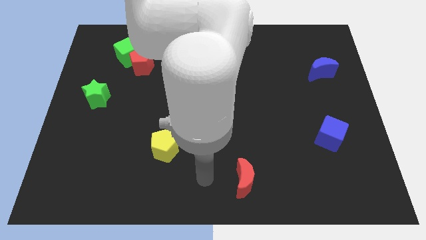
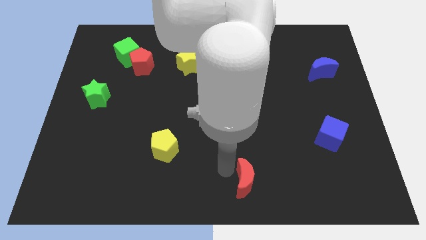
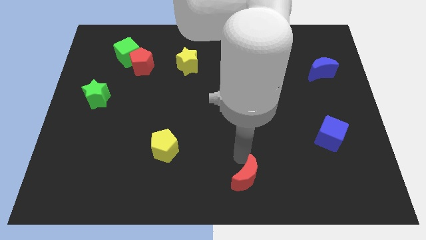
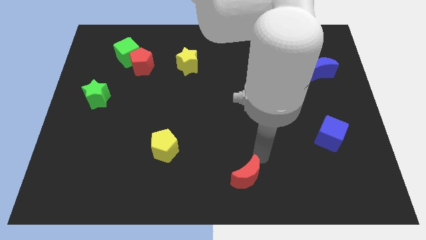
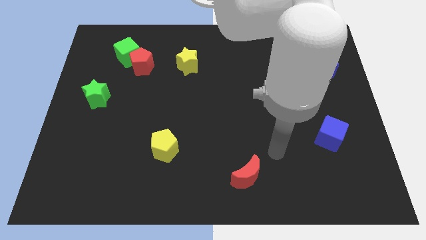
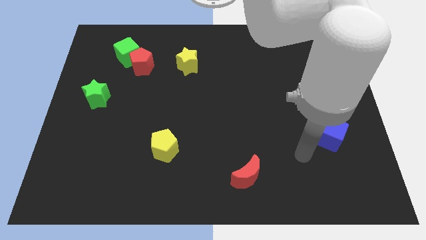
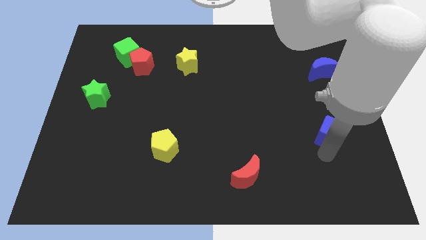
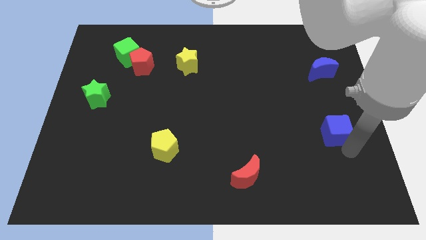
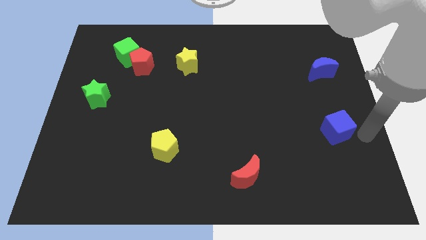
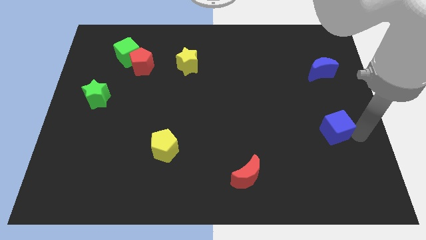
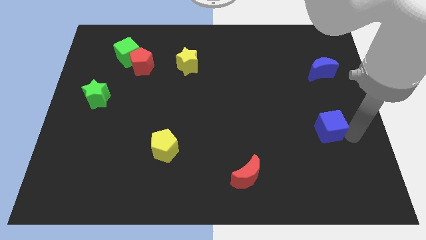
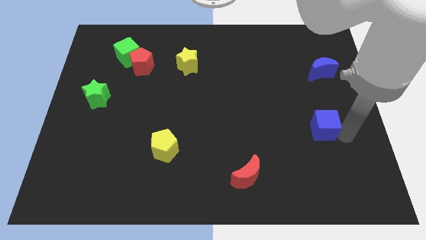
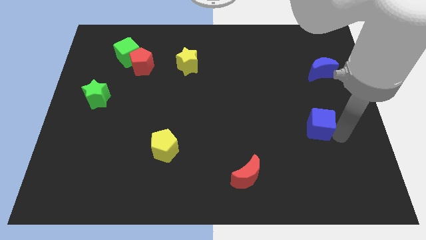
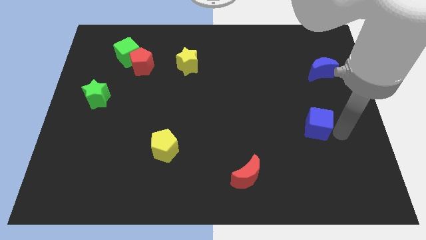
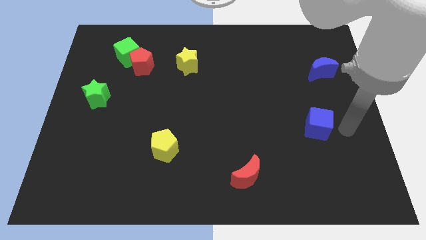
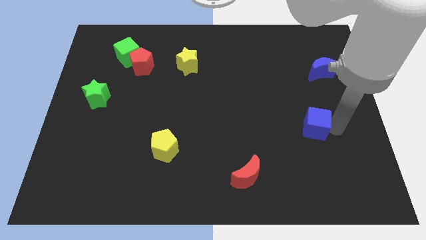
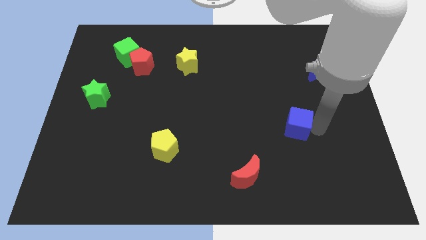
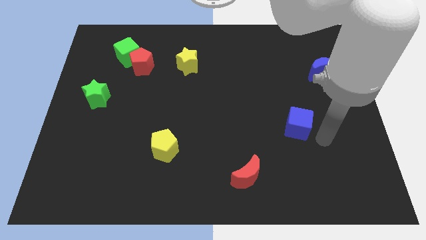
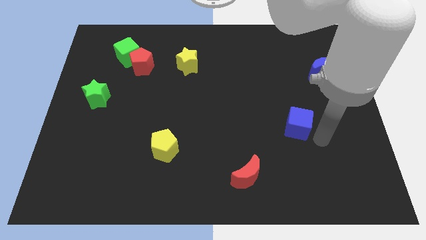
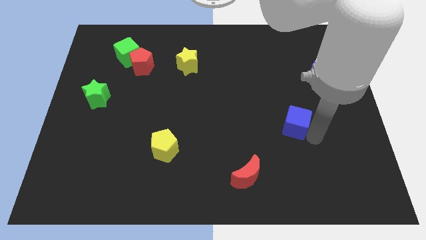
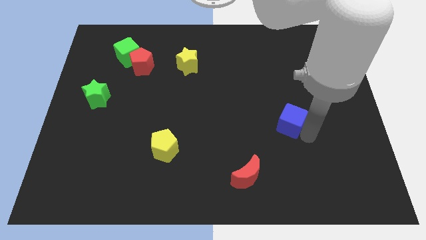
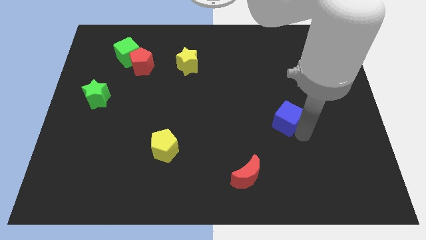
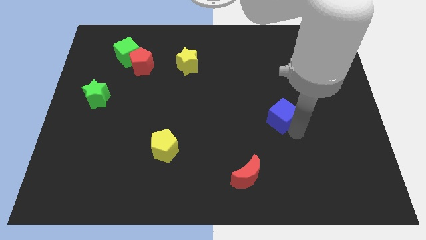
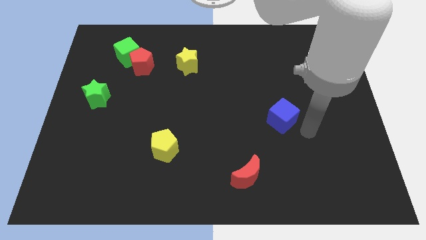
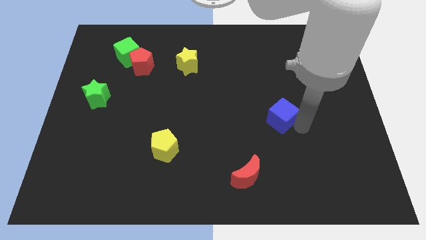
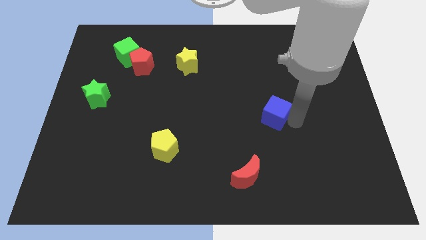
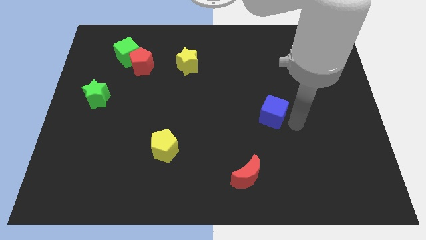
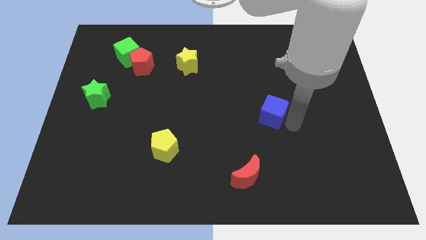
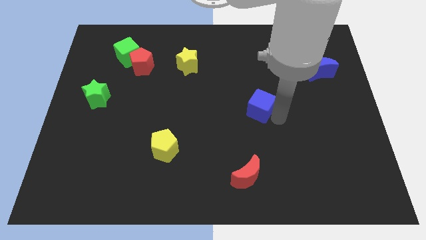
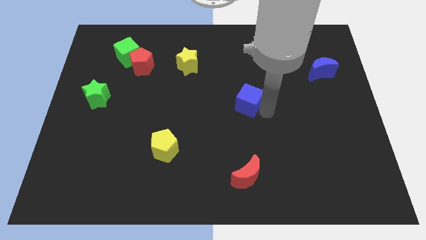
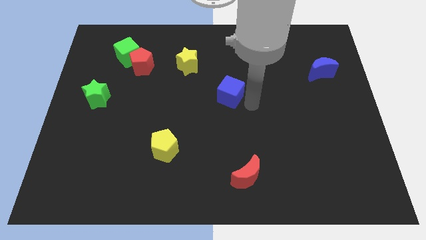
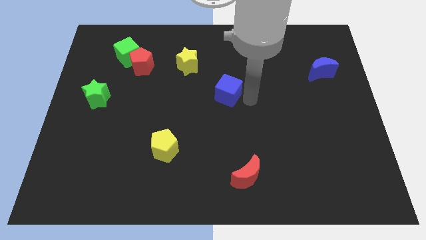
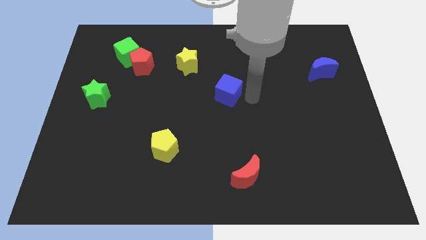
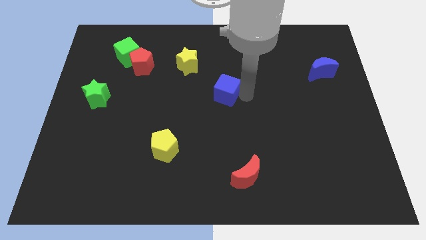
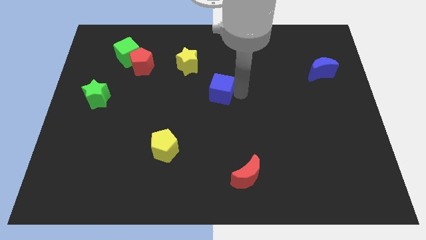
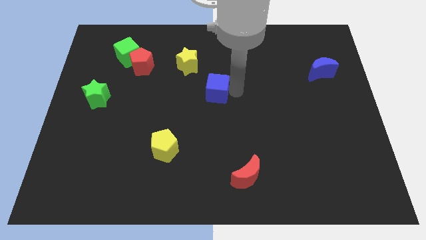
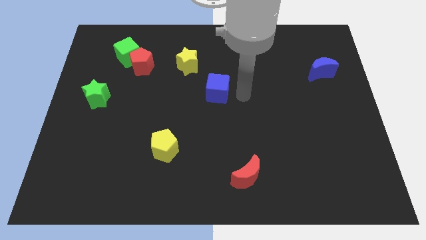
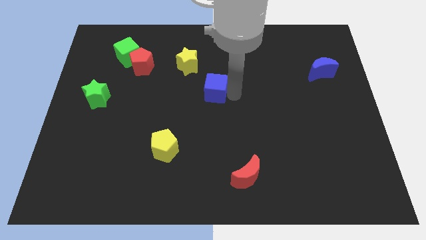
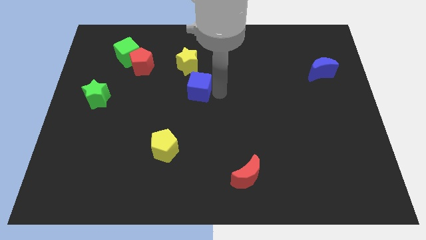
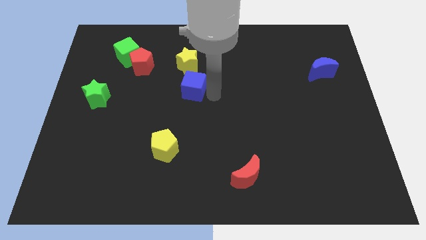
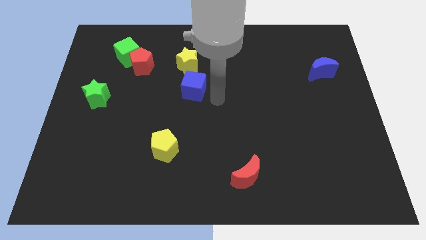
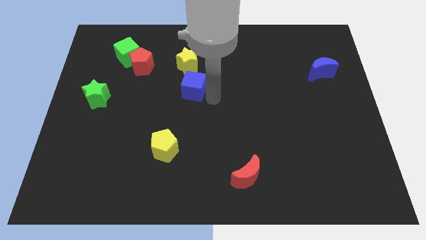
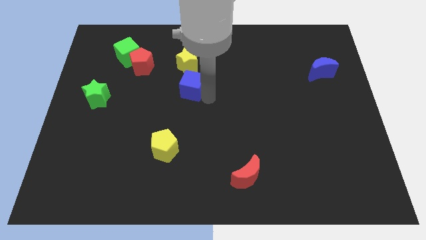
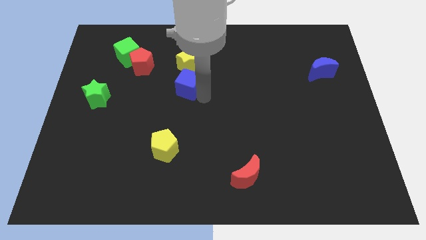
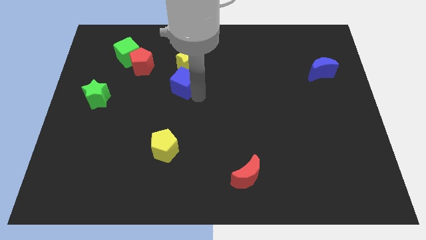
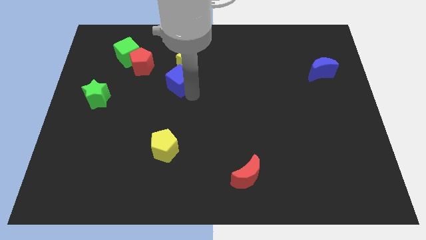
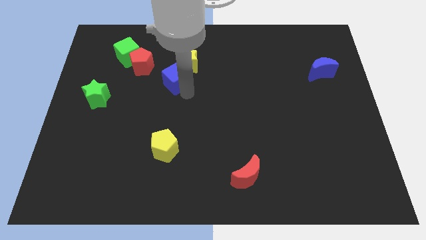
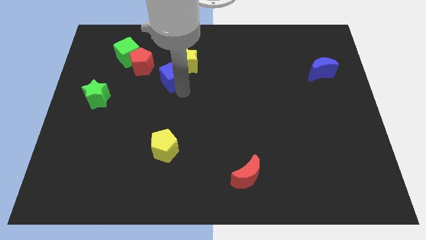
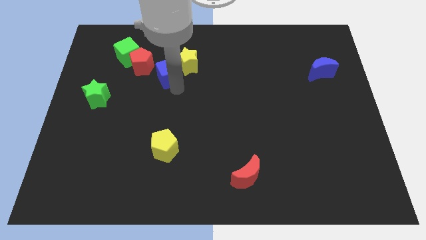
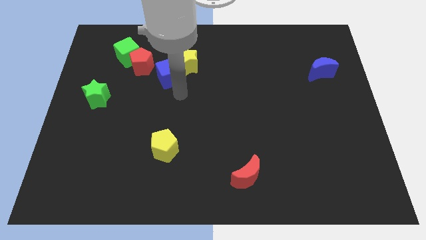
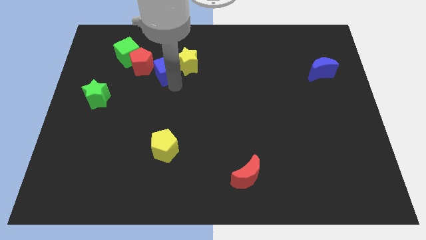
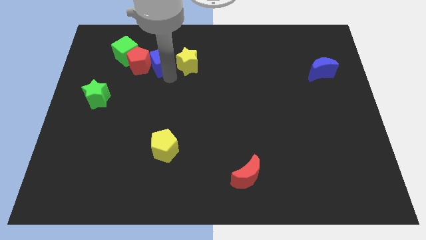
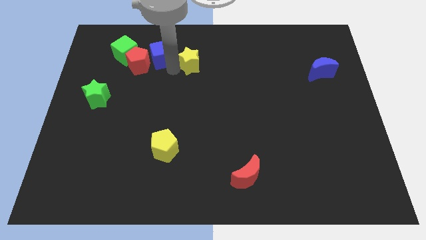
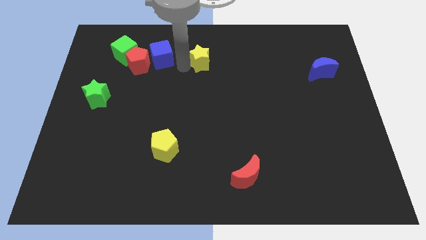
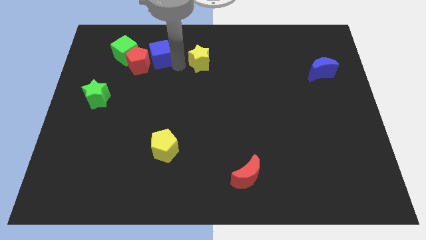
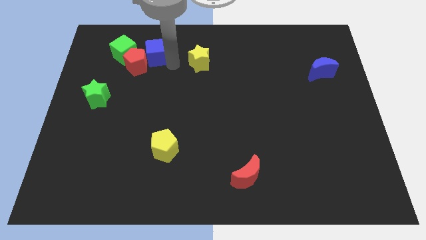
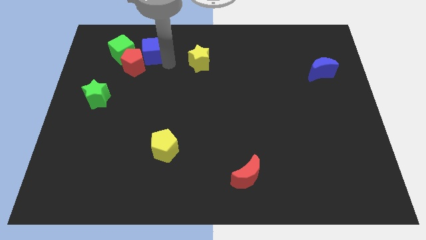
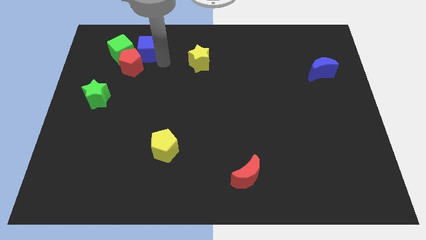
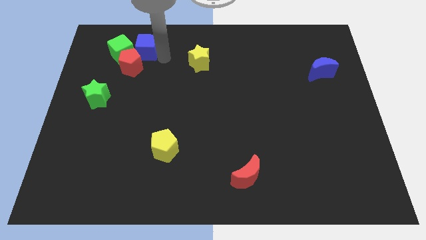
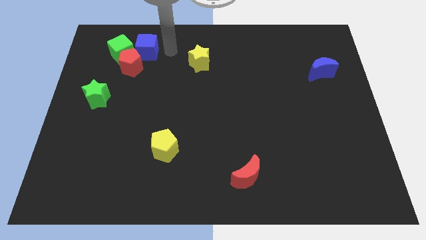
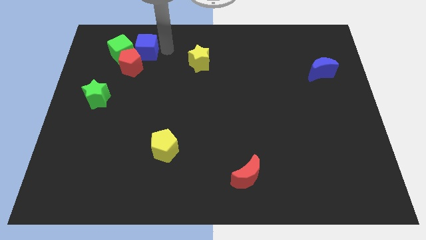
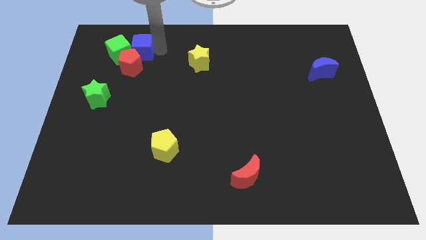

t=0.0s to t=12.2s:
push the blue cube next to the green cube
